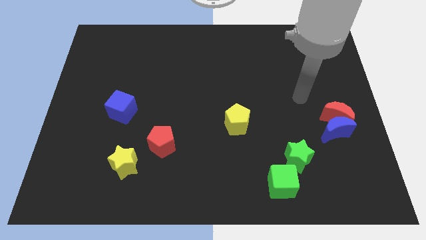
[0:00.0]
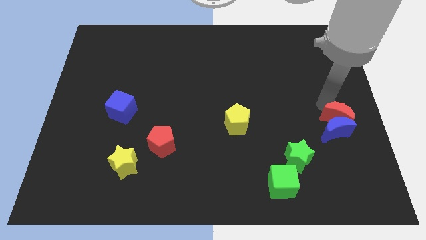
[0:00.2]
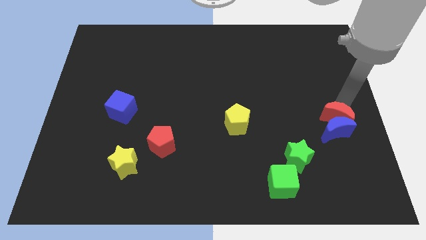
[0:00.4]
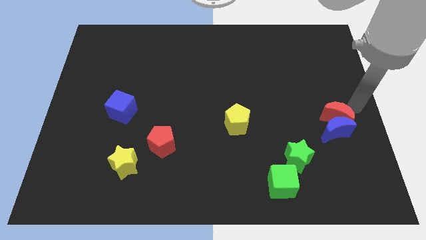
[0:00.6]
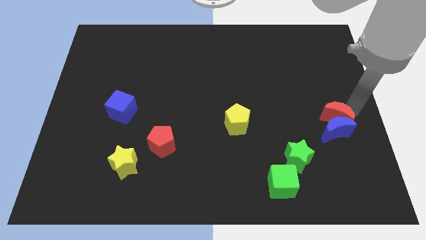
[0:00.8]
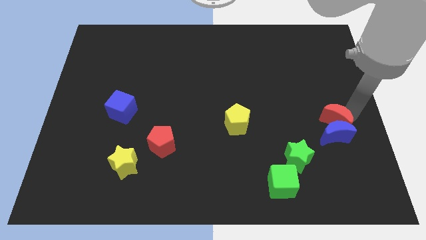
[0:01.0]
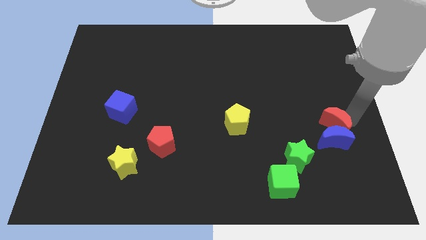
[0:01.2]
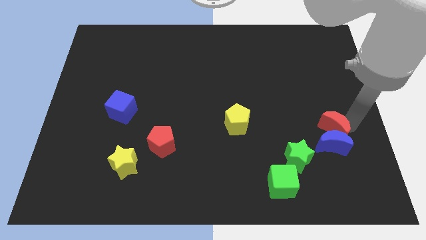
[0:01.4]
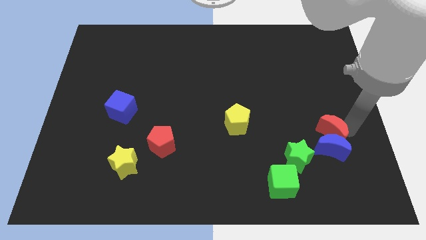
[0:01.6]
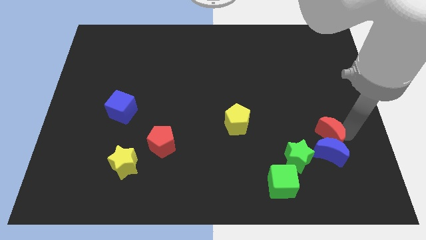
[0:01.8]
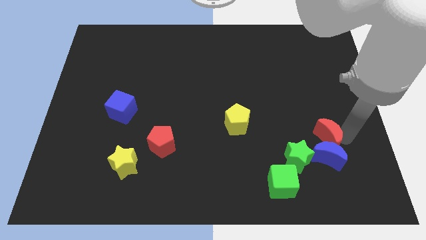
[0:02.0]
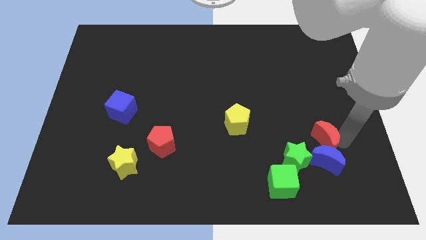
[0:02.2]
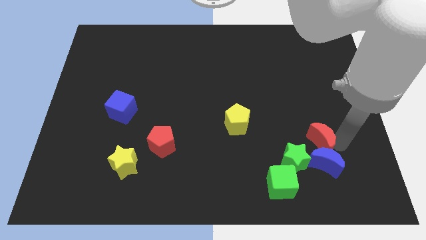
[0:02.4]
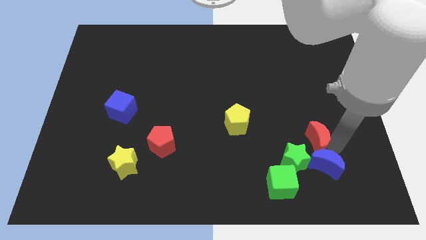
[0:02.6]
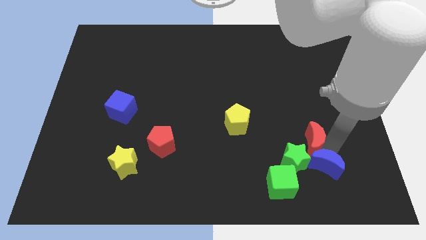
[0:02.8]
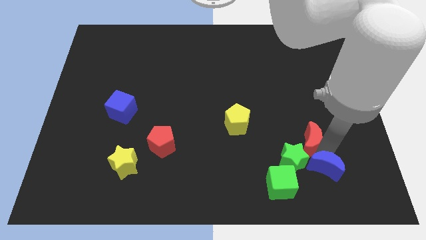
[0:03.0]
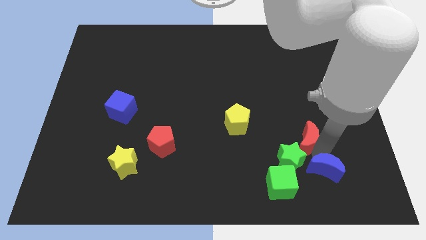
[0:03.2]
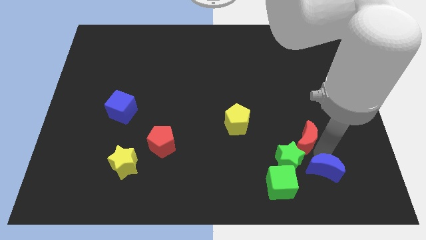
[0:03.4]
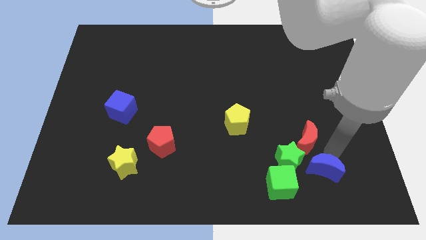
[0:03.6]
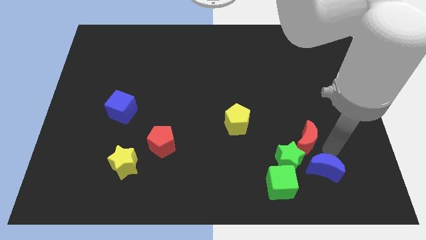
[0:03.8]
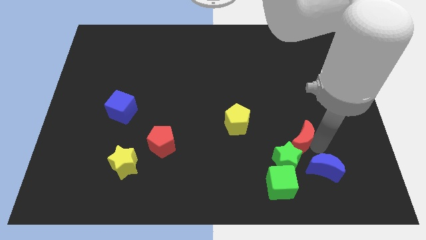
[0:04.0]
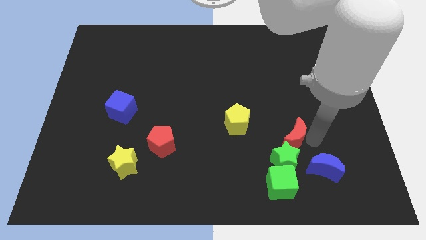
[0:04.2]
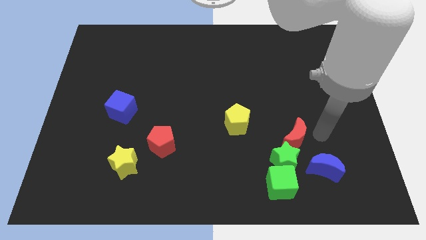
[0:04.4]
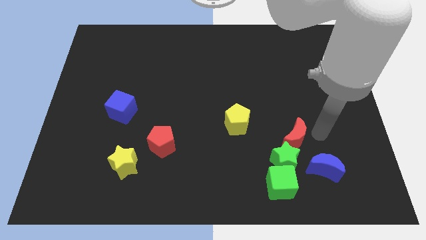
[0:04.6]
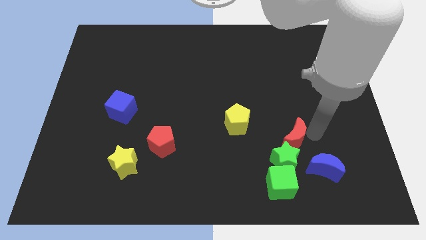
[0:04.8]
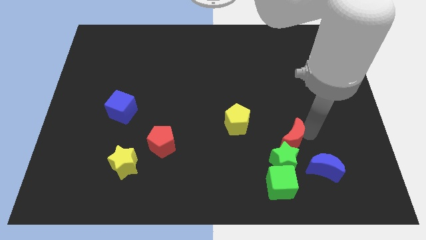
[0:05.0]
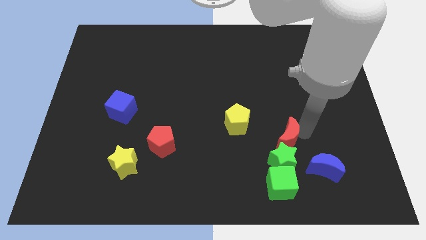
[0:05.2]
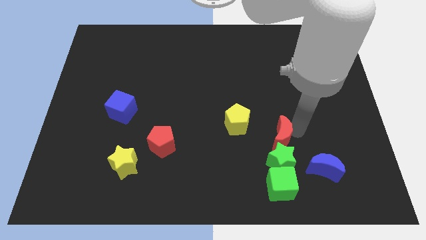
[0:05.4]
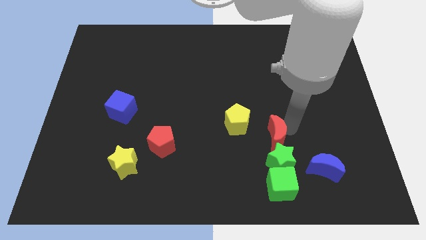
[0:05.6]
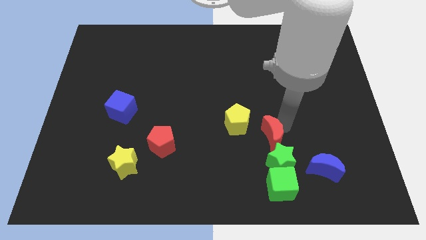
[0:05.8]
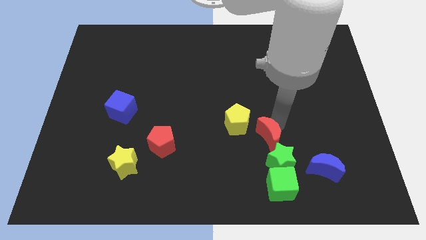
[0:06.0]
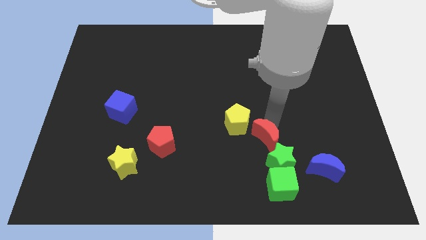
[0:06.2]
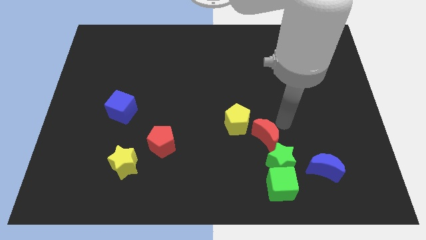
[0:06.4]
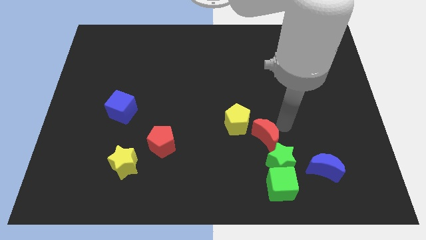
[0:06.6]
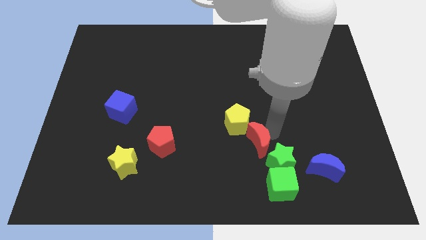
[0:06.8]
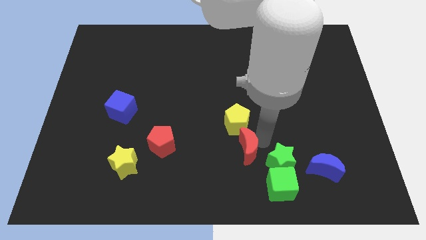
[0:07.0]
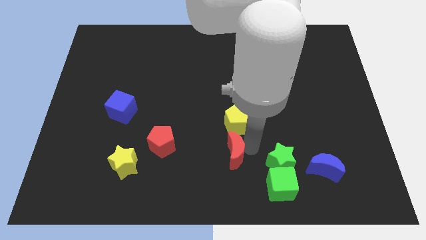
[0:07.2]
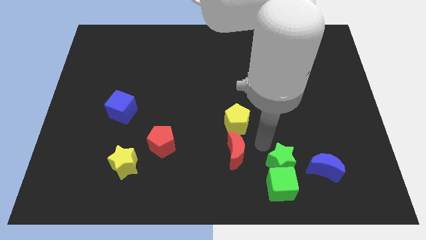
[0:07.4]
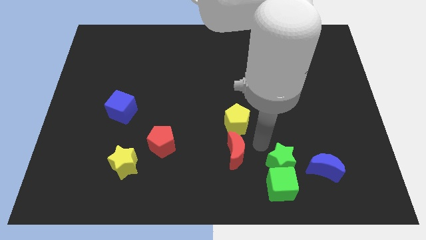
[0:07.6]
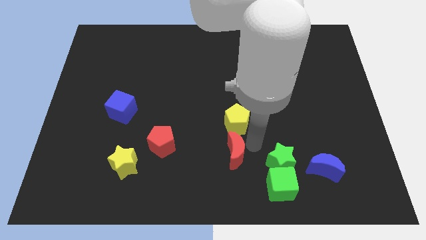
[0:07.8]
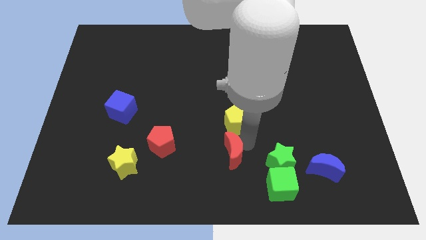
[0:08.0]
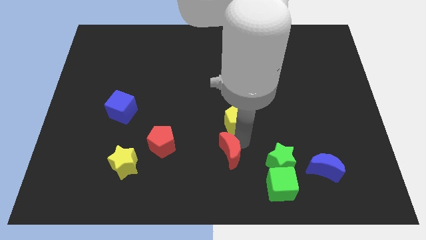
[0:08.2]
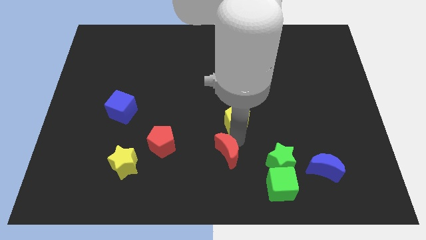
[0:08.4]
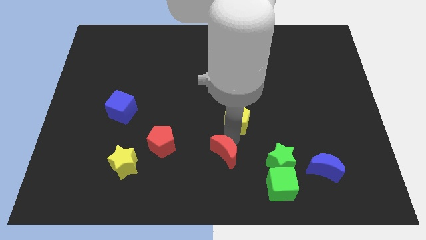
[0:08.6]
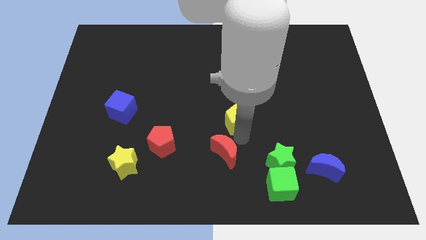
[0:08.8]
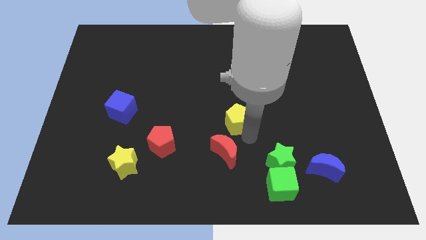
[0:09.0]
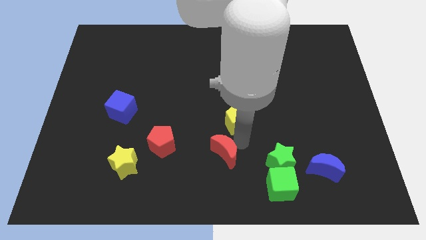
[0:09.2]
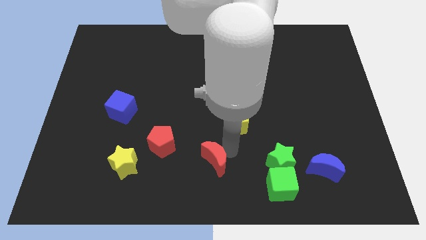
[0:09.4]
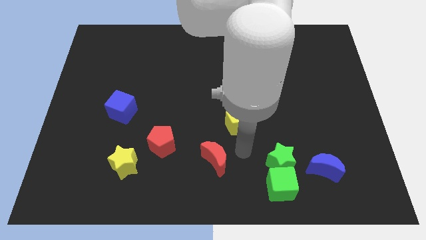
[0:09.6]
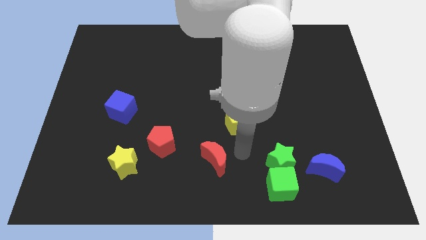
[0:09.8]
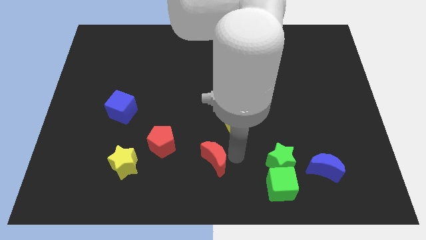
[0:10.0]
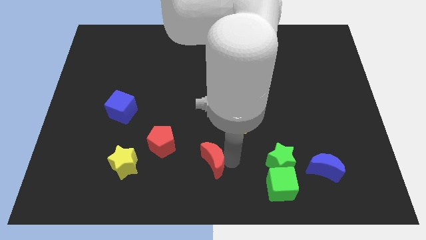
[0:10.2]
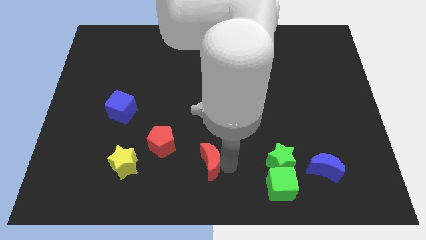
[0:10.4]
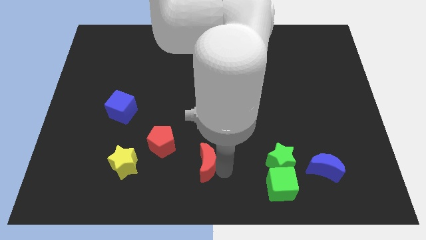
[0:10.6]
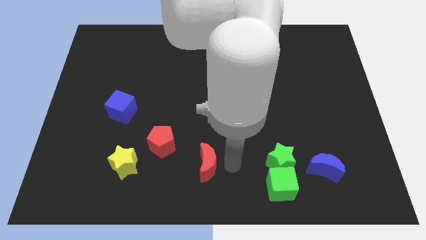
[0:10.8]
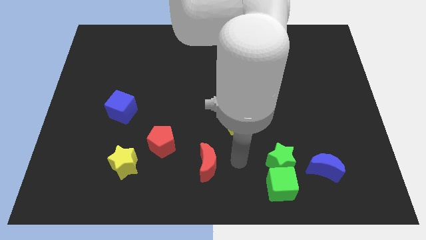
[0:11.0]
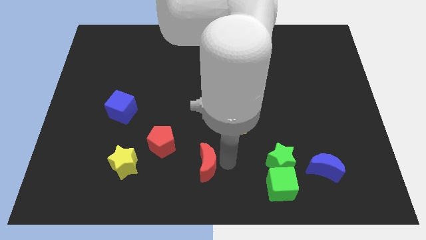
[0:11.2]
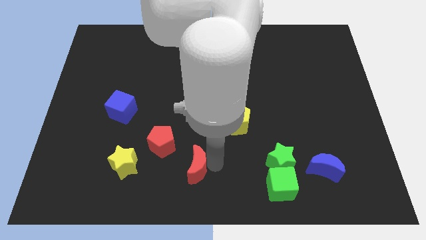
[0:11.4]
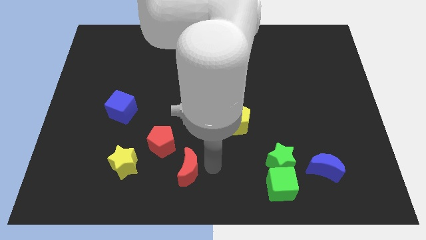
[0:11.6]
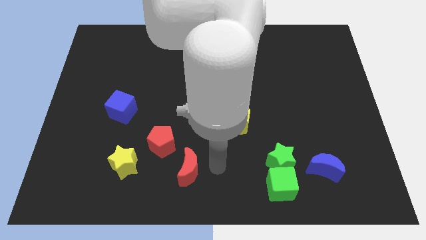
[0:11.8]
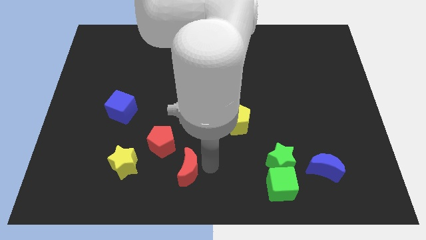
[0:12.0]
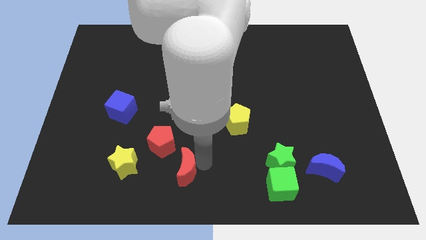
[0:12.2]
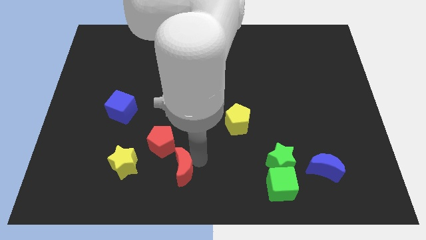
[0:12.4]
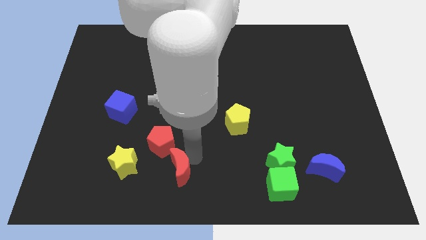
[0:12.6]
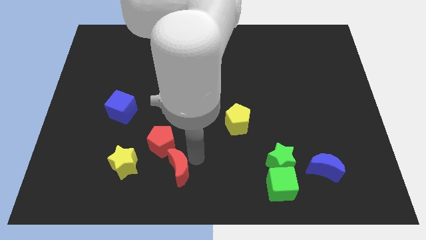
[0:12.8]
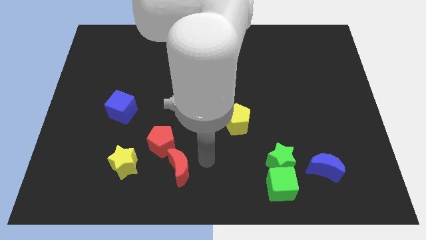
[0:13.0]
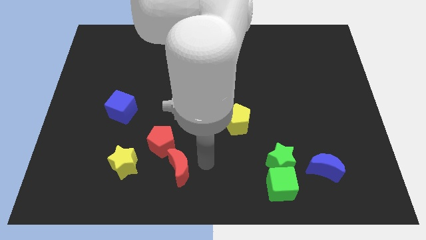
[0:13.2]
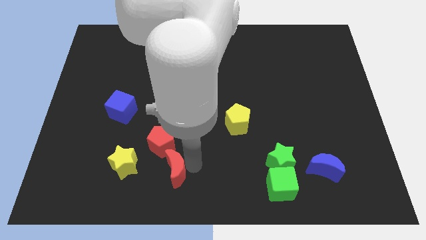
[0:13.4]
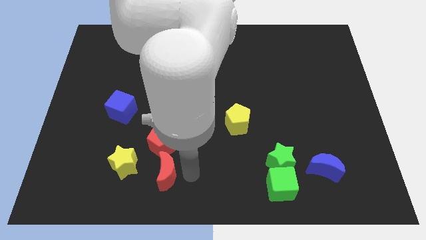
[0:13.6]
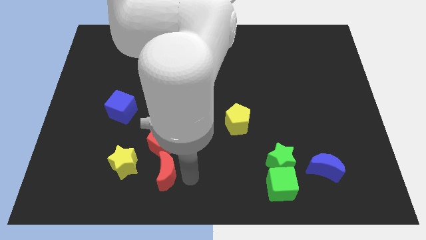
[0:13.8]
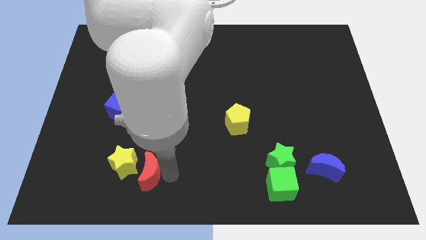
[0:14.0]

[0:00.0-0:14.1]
slide the red moon close to the yellow star
